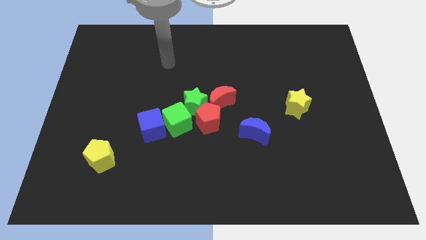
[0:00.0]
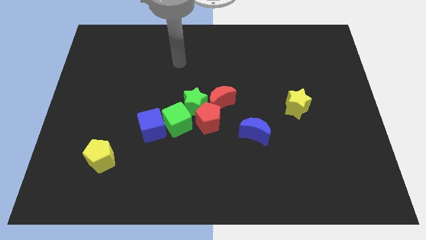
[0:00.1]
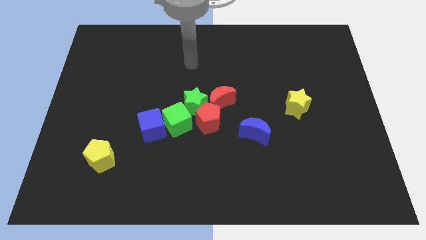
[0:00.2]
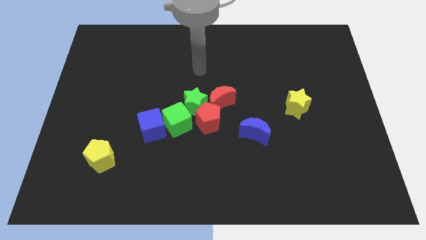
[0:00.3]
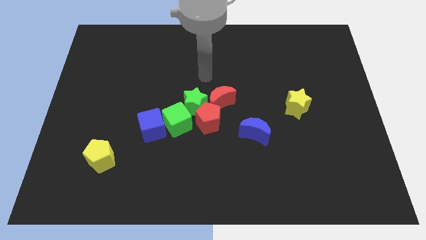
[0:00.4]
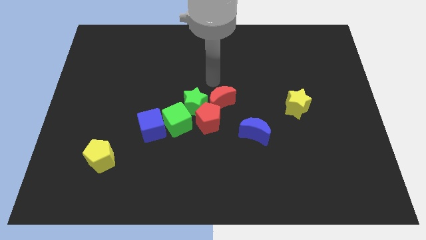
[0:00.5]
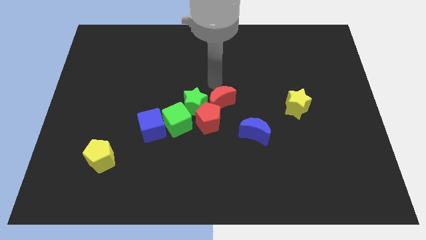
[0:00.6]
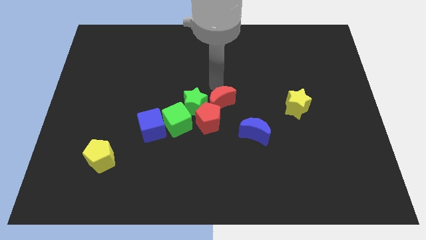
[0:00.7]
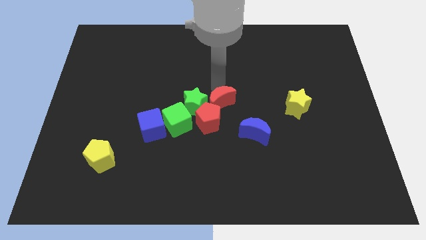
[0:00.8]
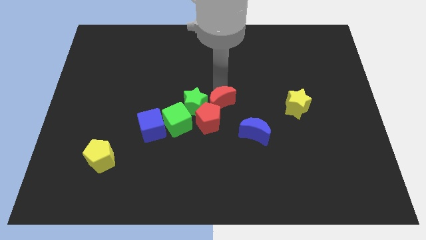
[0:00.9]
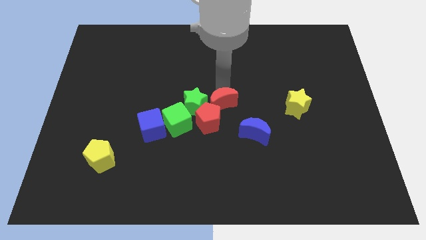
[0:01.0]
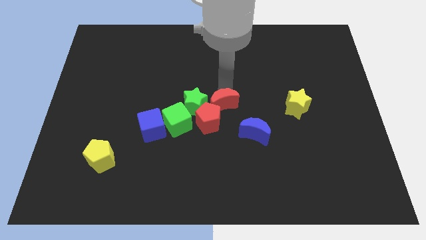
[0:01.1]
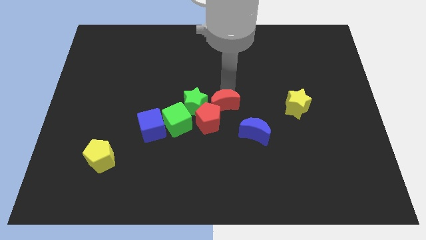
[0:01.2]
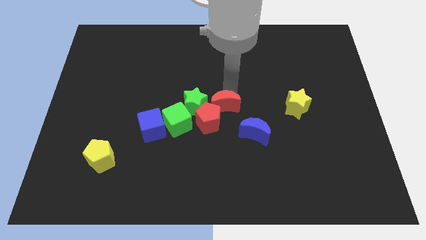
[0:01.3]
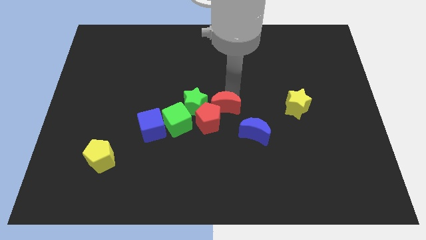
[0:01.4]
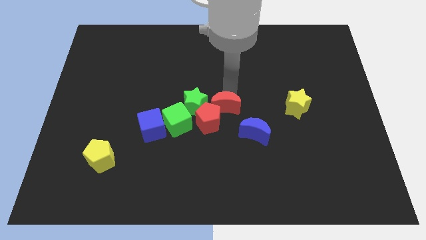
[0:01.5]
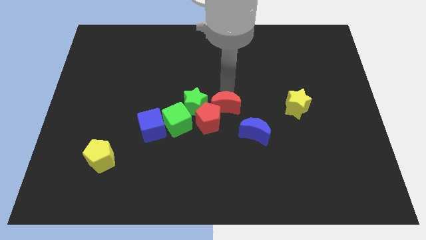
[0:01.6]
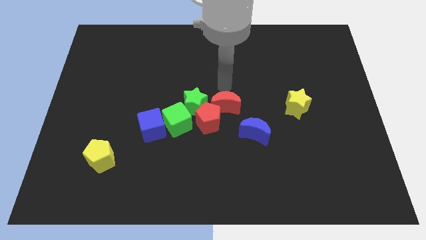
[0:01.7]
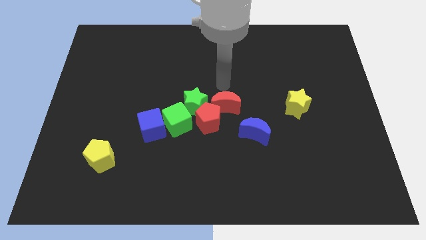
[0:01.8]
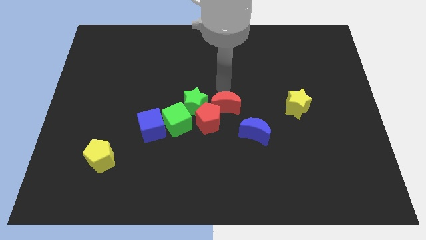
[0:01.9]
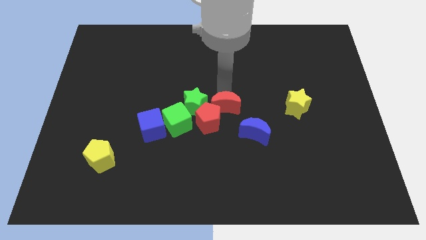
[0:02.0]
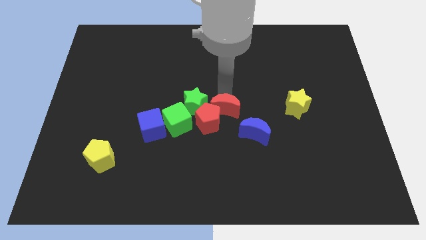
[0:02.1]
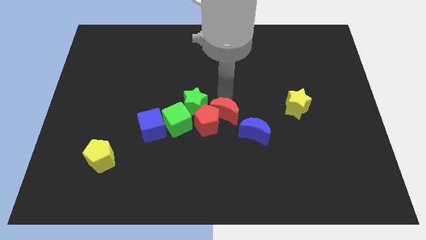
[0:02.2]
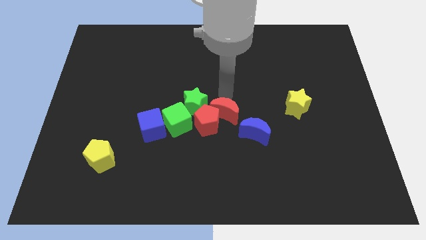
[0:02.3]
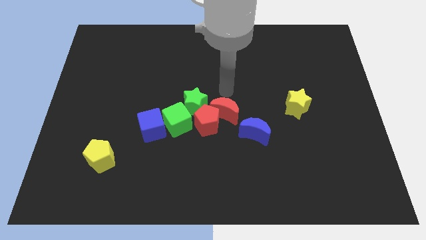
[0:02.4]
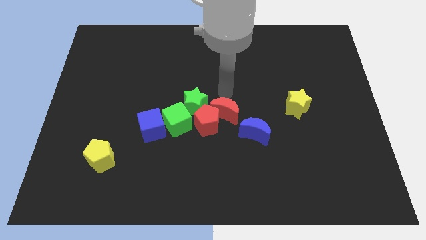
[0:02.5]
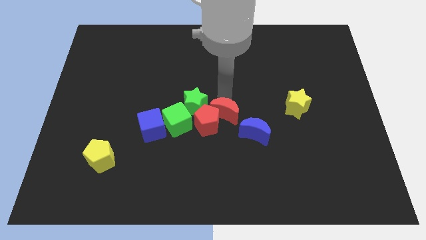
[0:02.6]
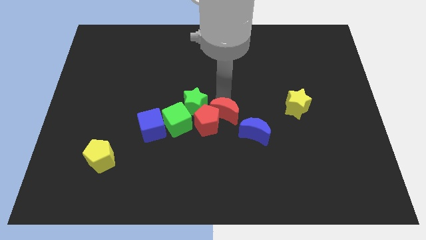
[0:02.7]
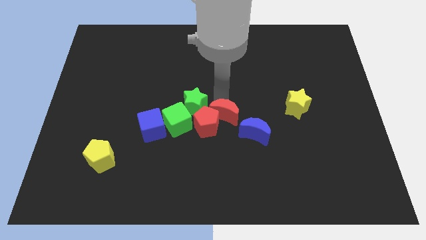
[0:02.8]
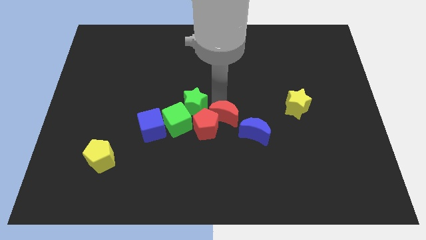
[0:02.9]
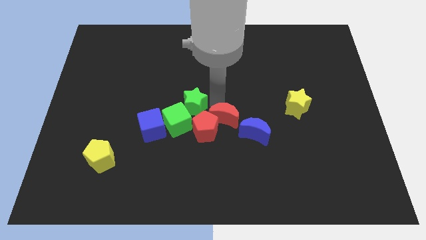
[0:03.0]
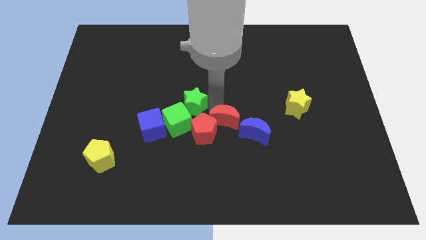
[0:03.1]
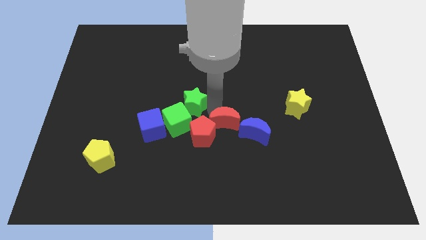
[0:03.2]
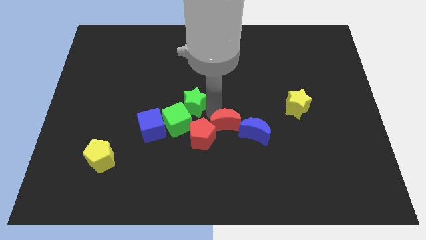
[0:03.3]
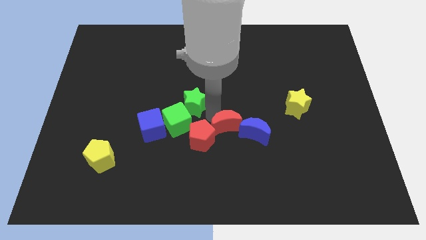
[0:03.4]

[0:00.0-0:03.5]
slightly push the red moon downwards

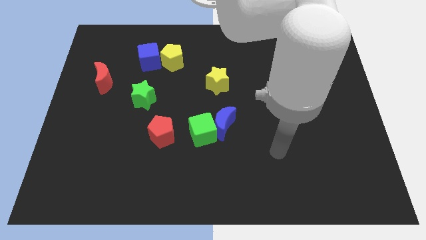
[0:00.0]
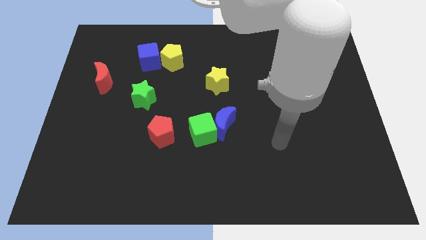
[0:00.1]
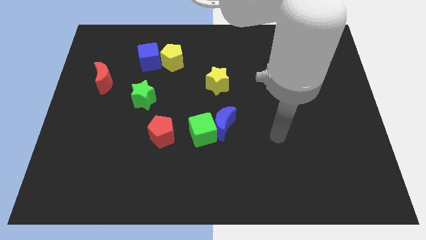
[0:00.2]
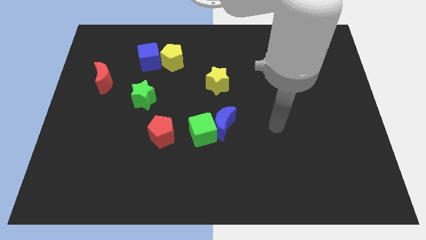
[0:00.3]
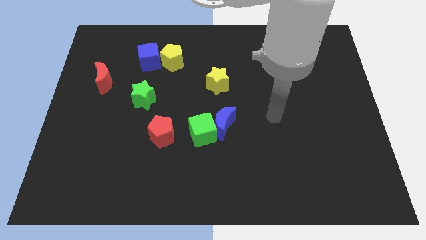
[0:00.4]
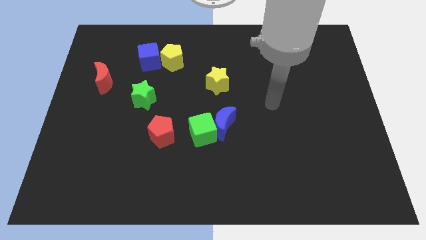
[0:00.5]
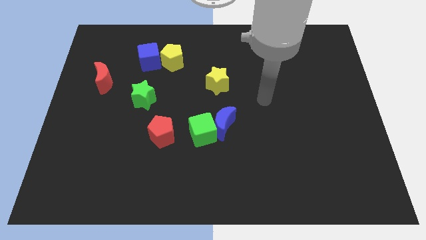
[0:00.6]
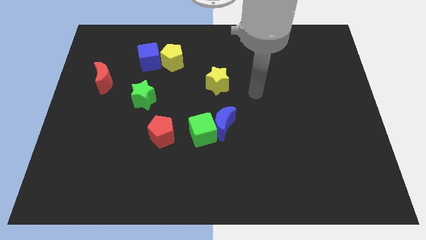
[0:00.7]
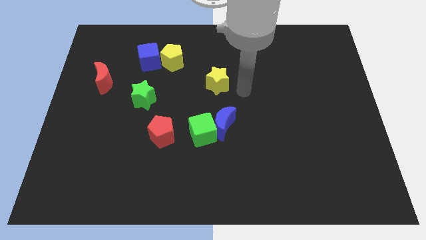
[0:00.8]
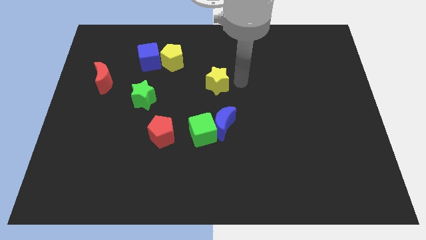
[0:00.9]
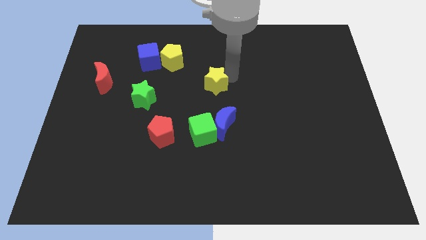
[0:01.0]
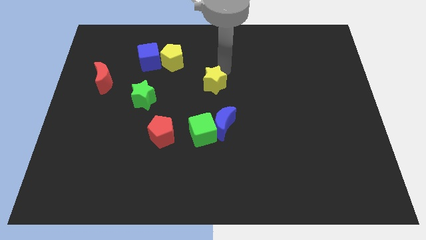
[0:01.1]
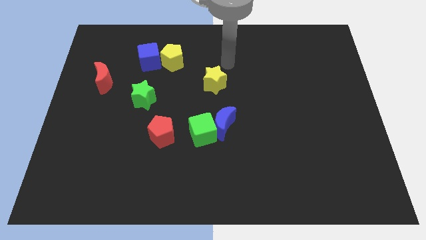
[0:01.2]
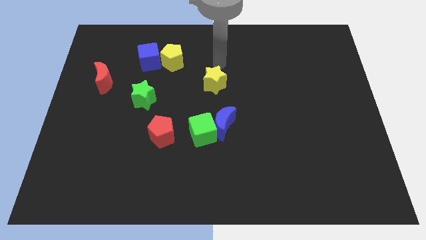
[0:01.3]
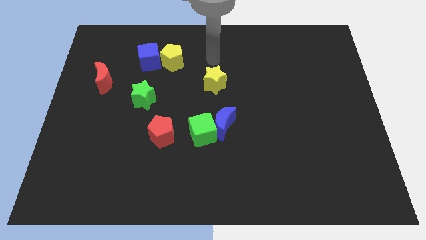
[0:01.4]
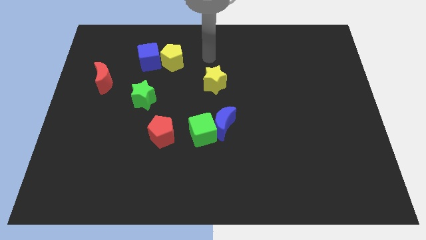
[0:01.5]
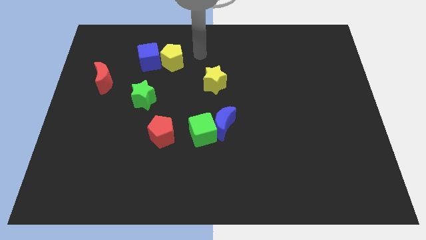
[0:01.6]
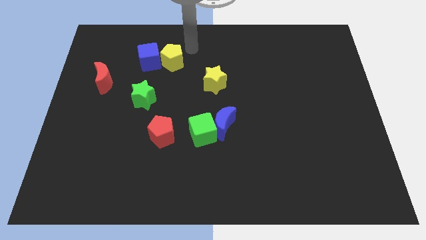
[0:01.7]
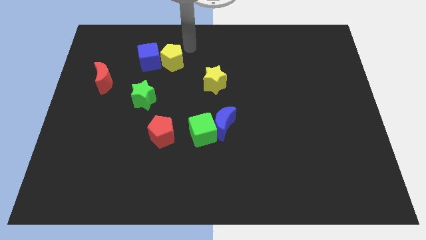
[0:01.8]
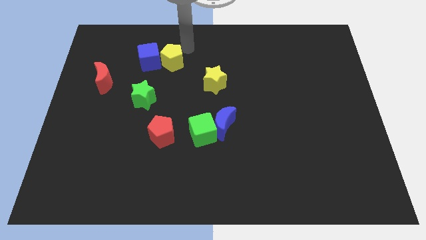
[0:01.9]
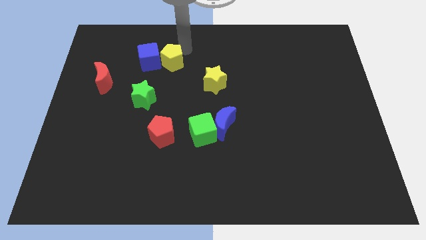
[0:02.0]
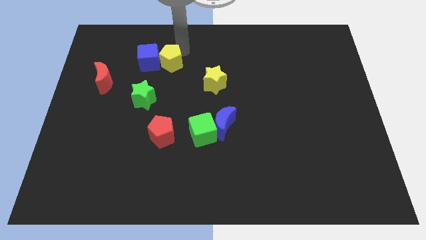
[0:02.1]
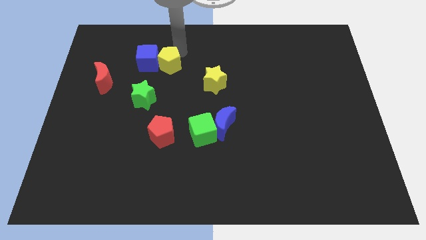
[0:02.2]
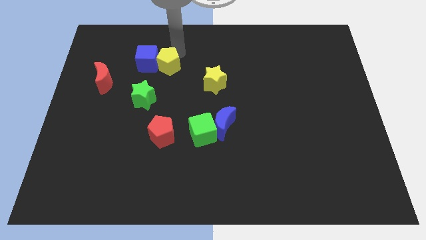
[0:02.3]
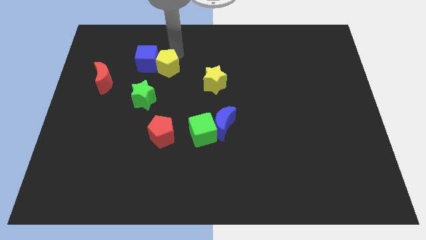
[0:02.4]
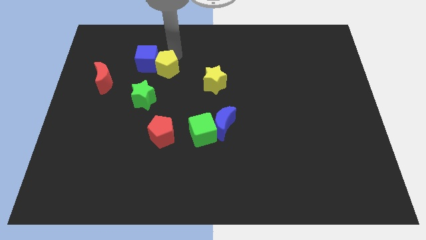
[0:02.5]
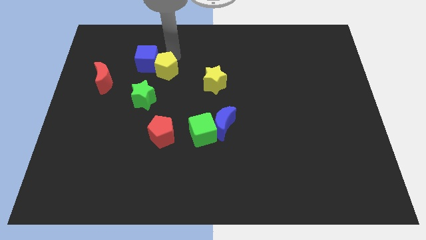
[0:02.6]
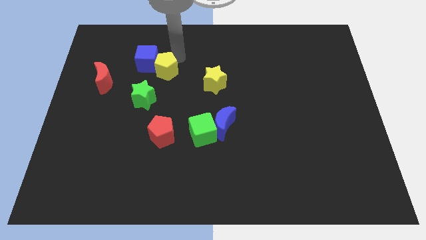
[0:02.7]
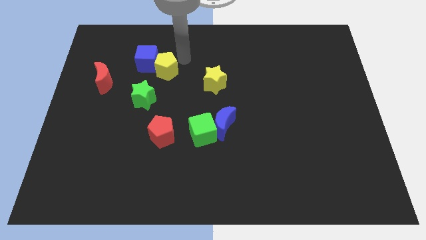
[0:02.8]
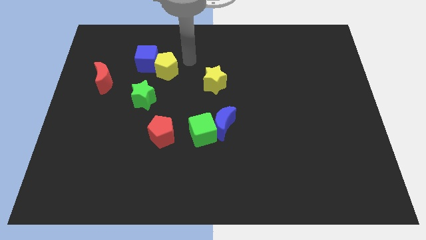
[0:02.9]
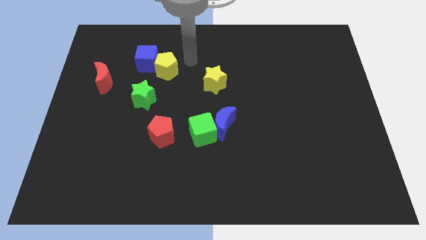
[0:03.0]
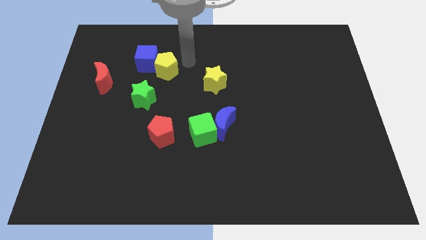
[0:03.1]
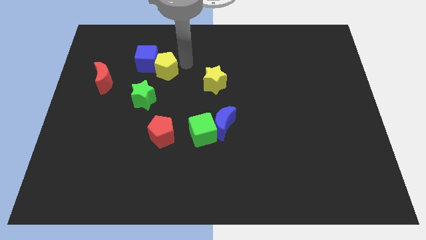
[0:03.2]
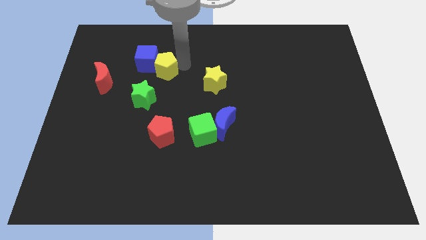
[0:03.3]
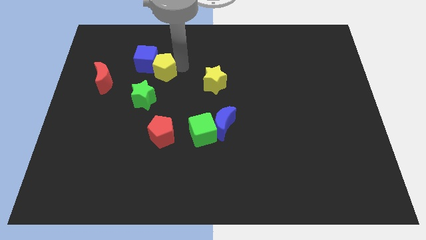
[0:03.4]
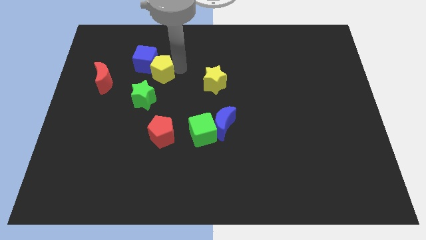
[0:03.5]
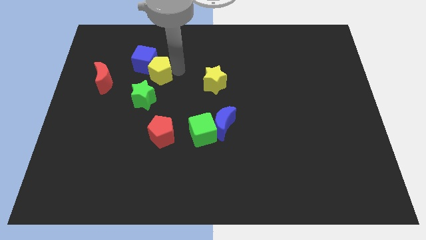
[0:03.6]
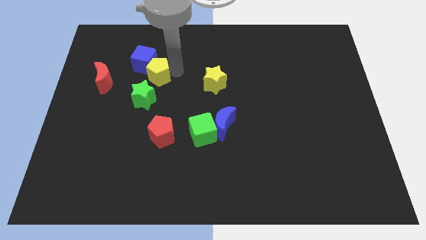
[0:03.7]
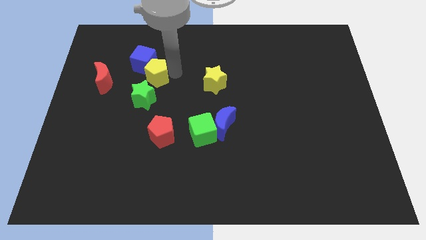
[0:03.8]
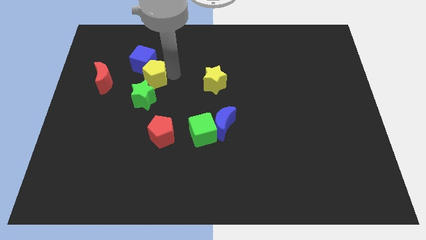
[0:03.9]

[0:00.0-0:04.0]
slightly push the yellow pentagon downwards and left

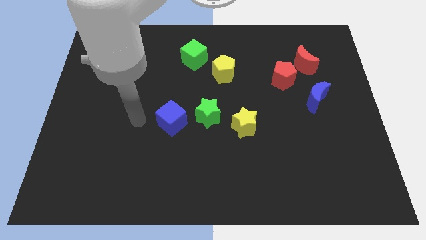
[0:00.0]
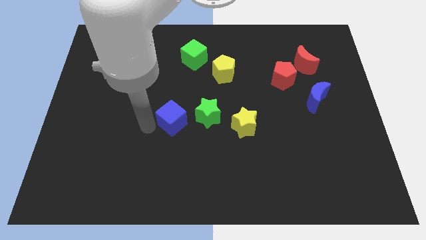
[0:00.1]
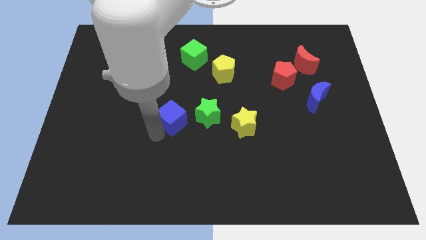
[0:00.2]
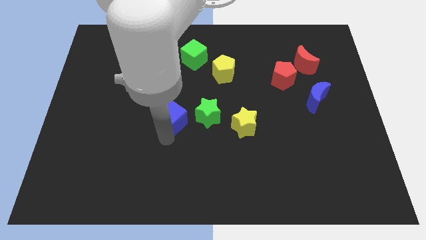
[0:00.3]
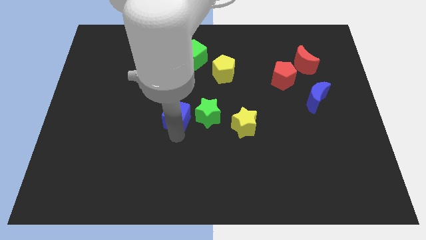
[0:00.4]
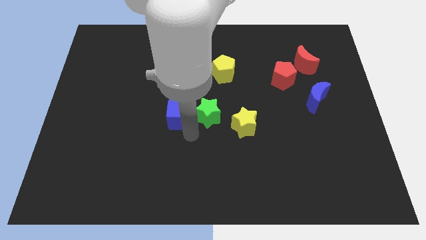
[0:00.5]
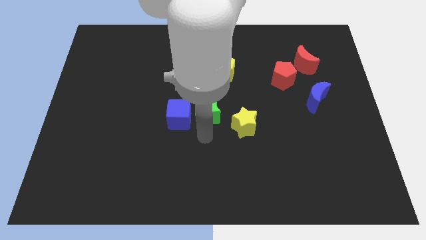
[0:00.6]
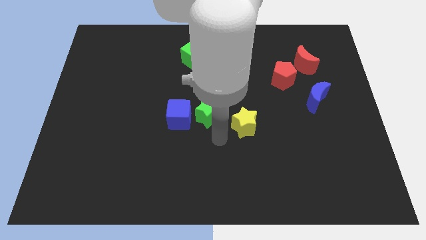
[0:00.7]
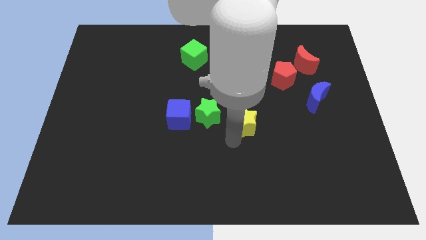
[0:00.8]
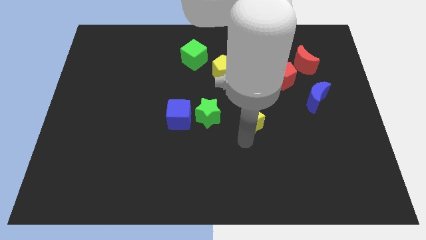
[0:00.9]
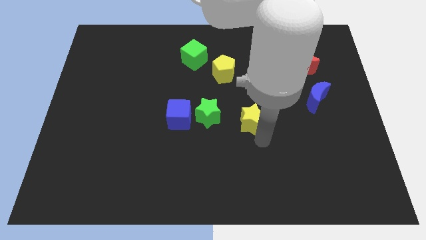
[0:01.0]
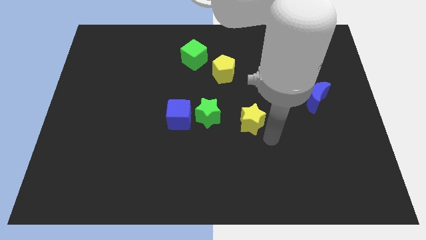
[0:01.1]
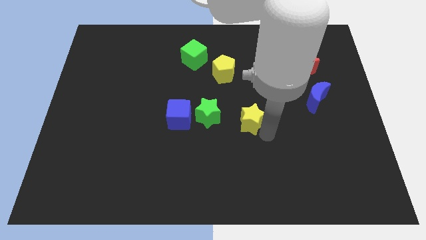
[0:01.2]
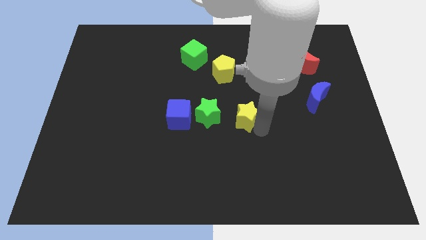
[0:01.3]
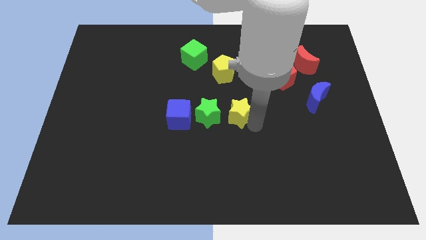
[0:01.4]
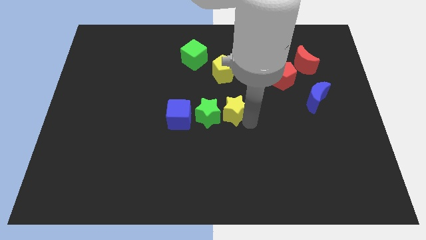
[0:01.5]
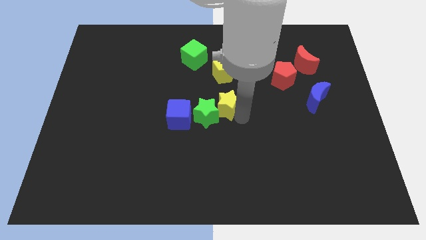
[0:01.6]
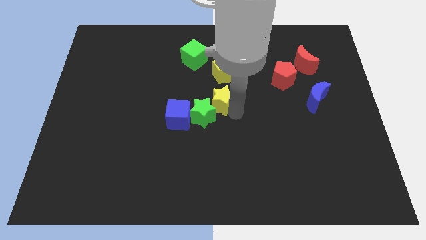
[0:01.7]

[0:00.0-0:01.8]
push the yellow star diagonally up and to the left a bit
